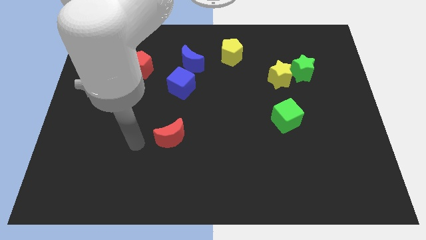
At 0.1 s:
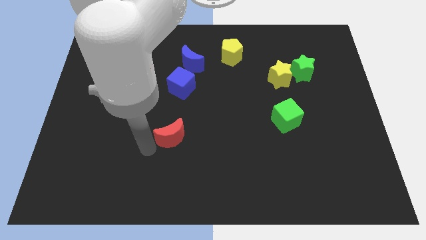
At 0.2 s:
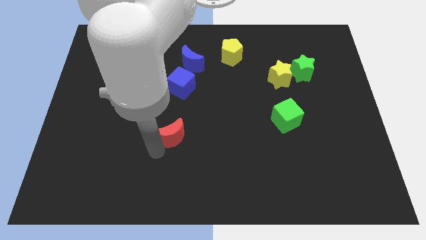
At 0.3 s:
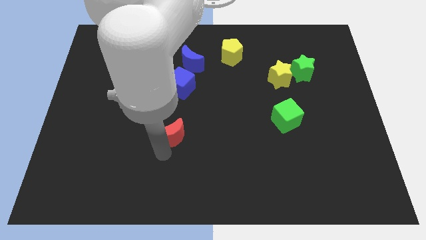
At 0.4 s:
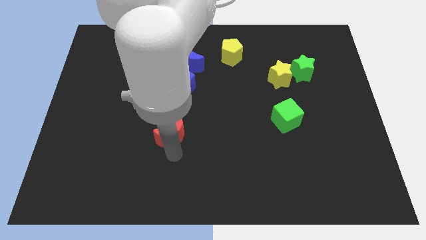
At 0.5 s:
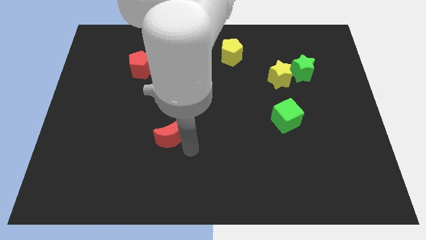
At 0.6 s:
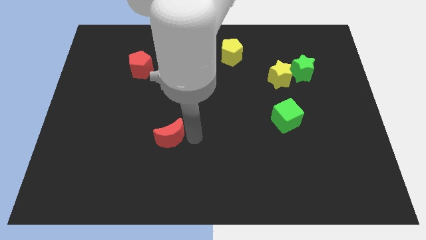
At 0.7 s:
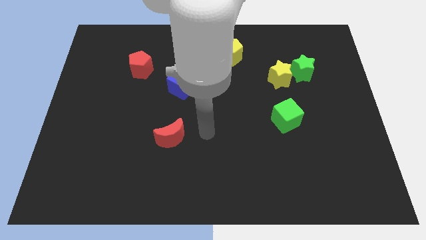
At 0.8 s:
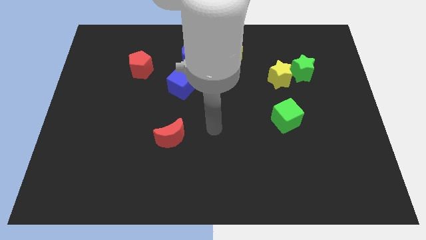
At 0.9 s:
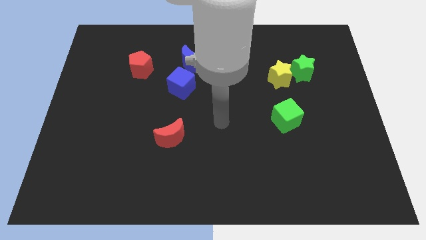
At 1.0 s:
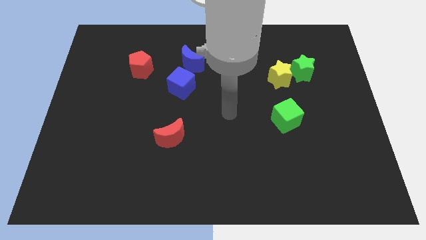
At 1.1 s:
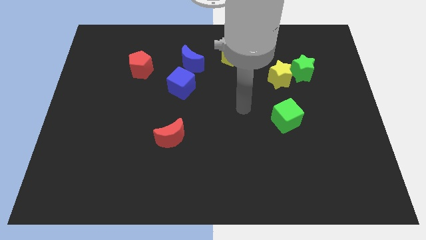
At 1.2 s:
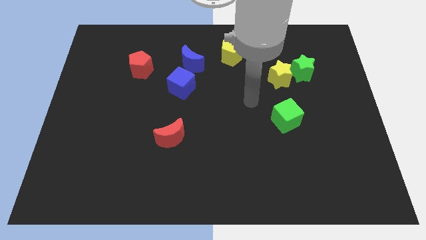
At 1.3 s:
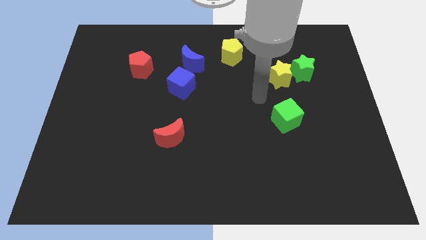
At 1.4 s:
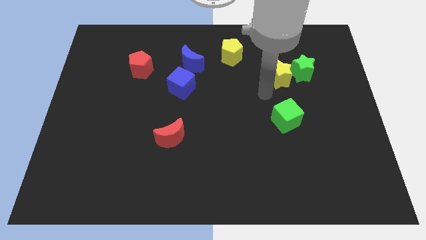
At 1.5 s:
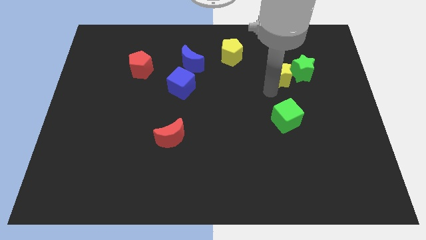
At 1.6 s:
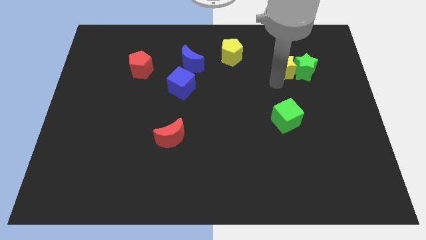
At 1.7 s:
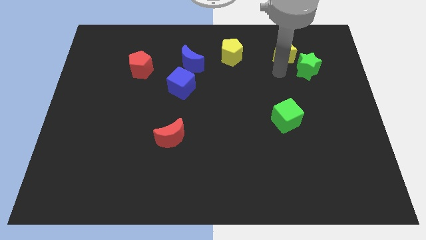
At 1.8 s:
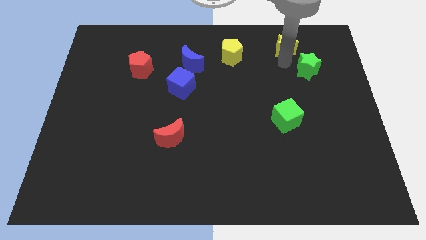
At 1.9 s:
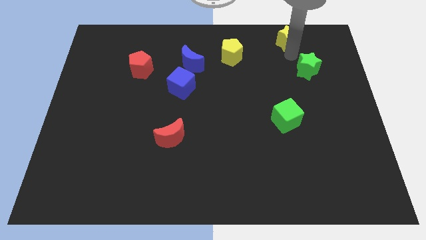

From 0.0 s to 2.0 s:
separate the green star from the yellow star

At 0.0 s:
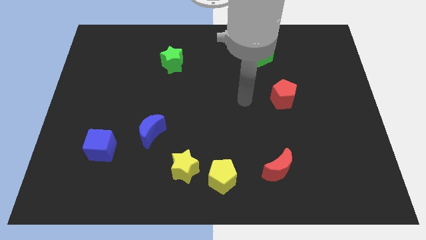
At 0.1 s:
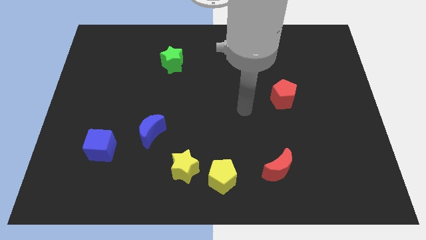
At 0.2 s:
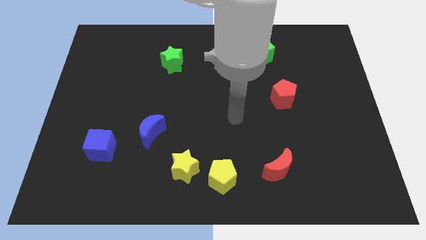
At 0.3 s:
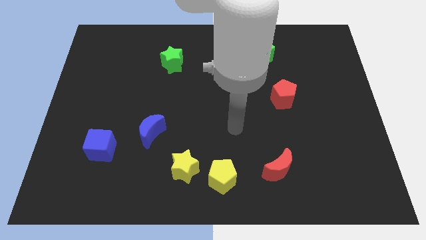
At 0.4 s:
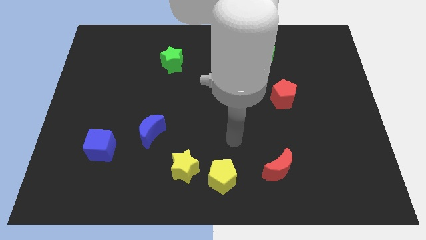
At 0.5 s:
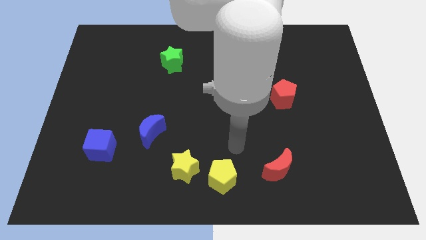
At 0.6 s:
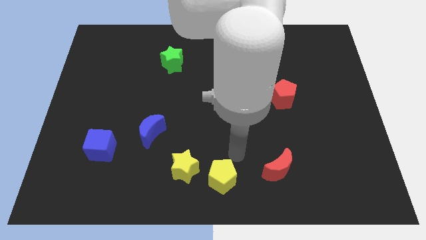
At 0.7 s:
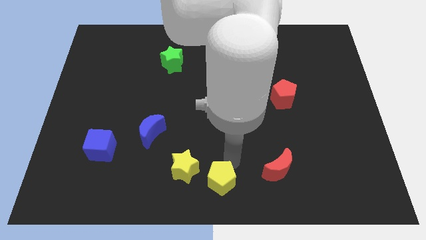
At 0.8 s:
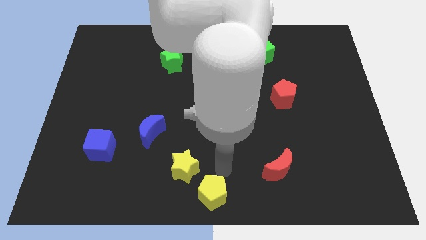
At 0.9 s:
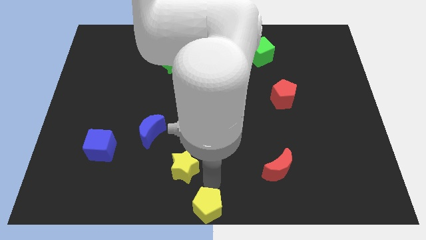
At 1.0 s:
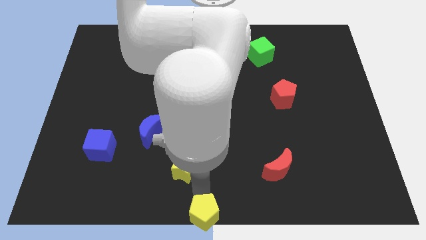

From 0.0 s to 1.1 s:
separate the yellow star from the yellow pentagon

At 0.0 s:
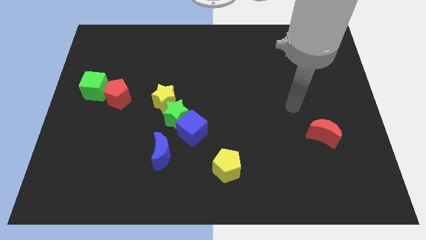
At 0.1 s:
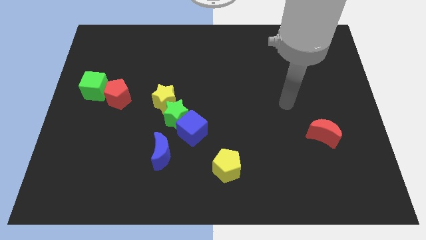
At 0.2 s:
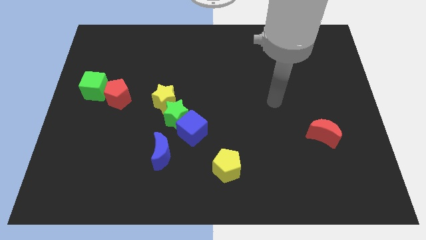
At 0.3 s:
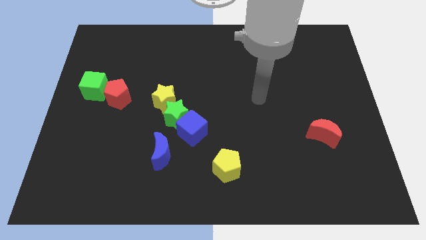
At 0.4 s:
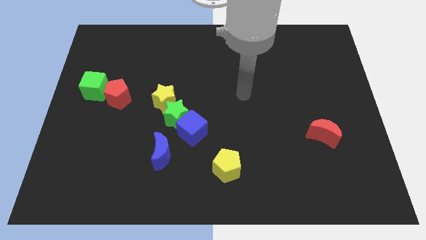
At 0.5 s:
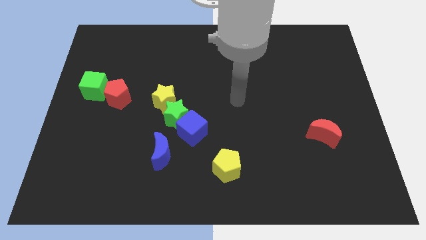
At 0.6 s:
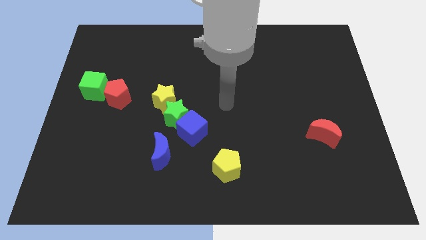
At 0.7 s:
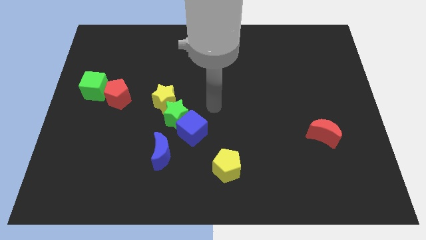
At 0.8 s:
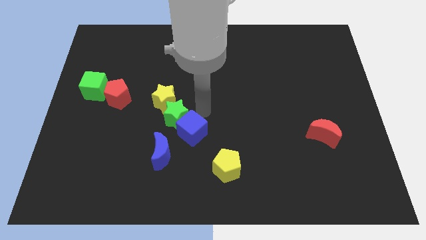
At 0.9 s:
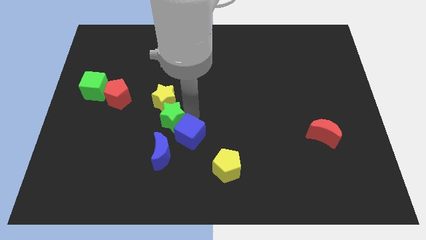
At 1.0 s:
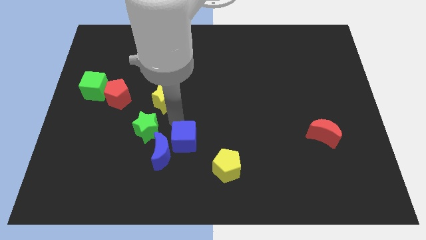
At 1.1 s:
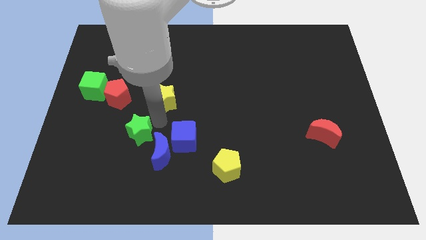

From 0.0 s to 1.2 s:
move the yellow star away from the green star

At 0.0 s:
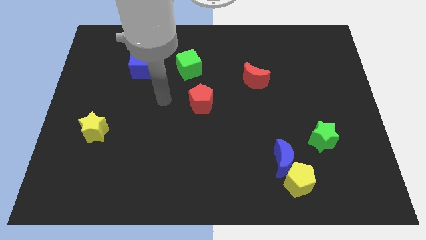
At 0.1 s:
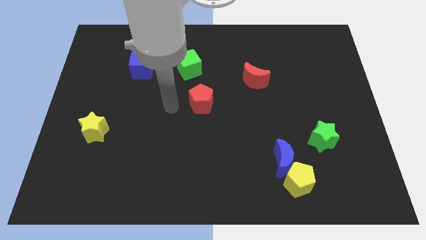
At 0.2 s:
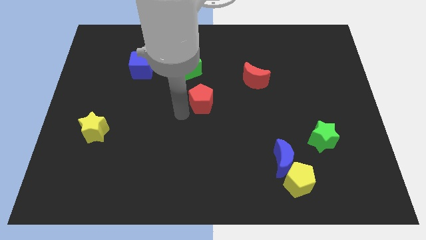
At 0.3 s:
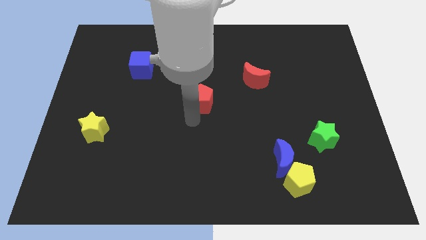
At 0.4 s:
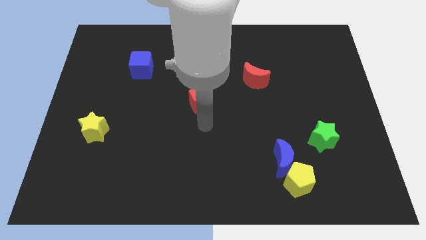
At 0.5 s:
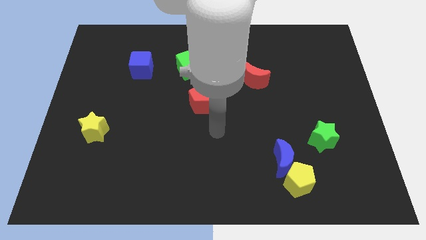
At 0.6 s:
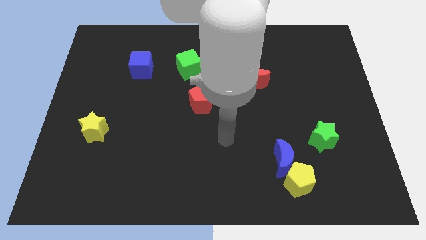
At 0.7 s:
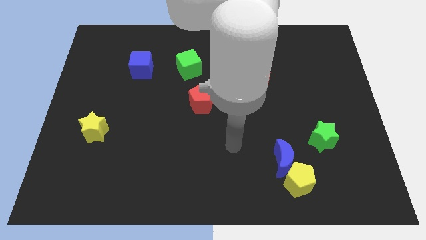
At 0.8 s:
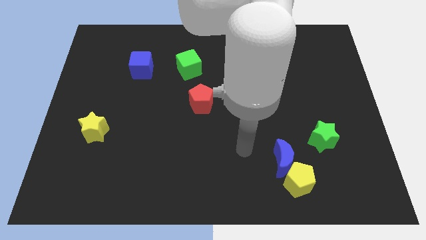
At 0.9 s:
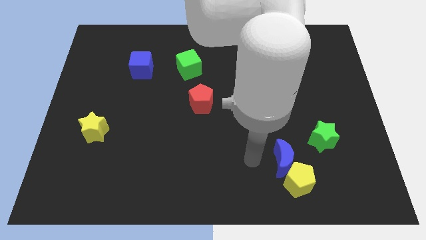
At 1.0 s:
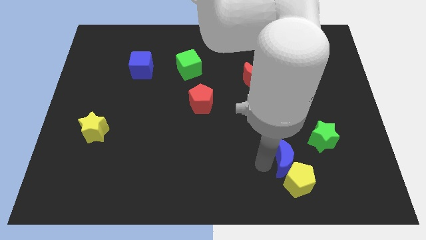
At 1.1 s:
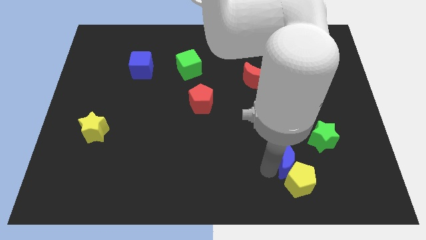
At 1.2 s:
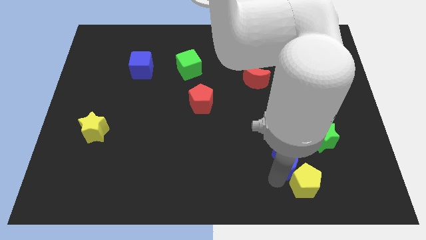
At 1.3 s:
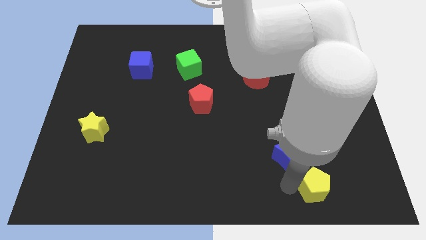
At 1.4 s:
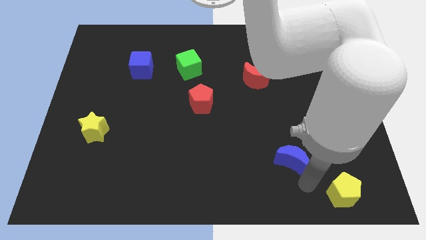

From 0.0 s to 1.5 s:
pull the blue moon apart from the yellow pentagon

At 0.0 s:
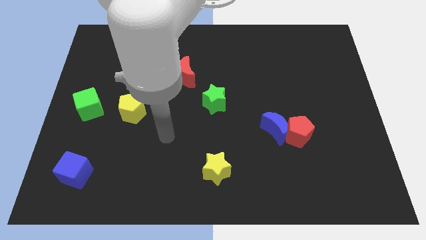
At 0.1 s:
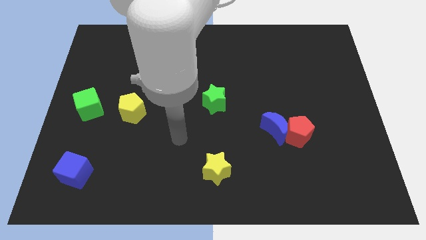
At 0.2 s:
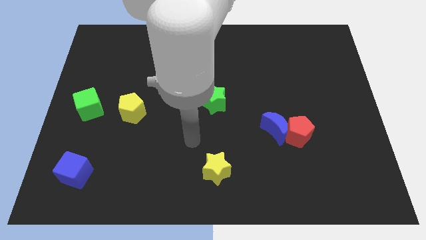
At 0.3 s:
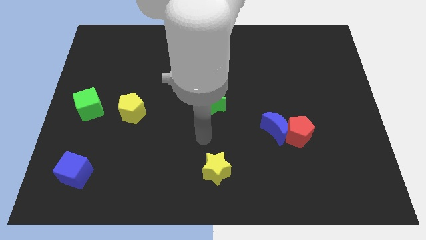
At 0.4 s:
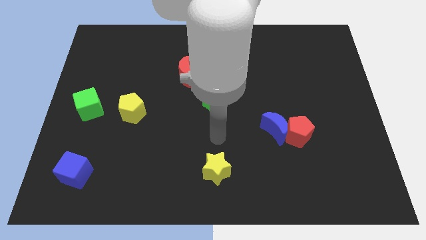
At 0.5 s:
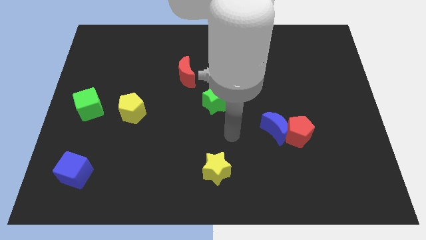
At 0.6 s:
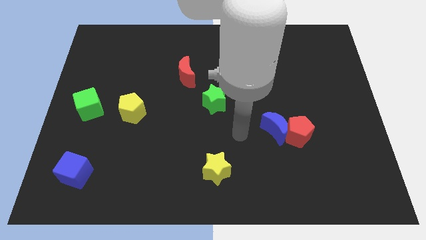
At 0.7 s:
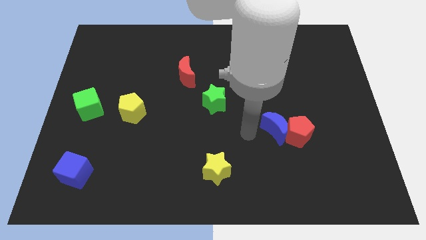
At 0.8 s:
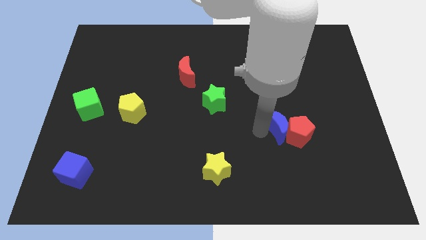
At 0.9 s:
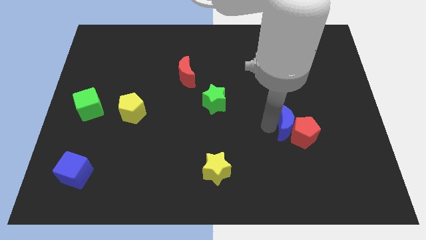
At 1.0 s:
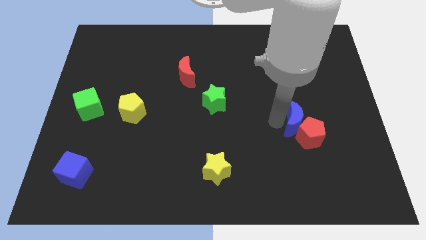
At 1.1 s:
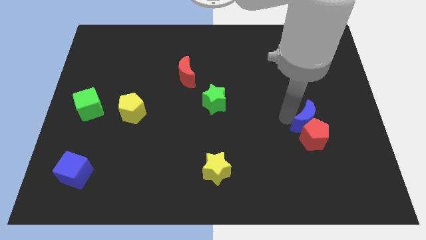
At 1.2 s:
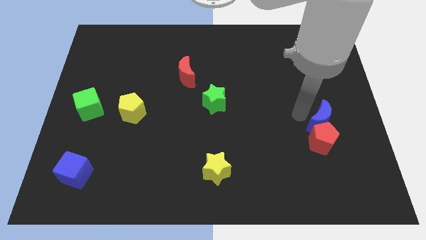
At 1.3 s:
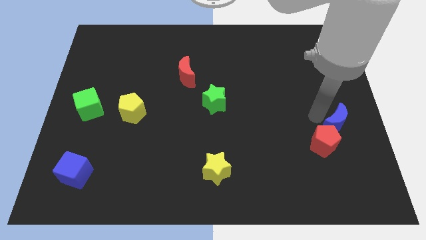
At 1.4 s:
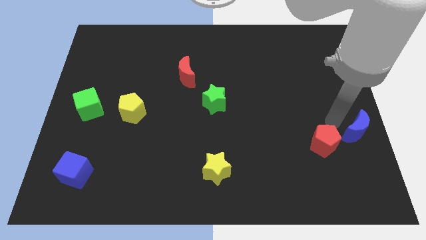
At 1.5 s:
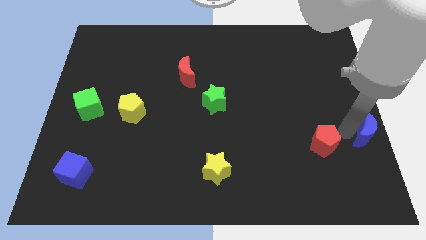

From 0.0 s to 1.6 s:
move the red pentagon away from the blue moon

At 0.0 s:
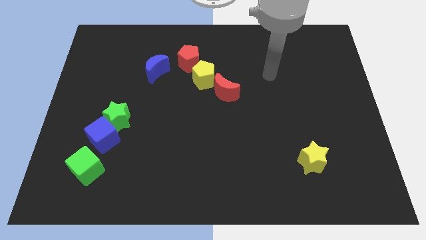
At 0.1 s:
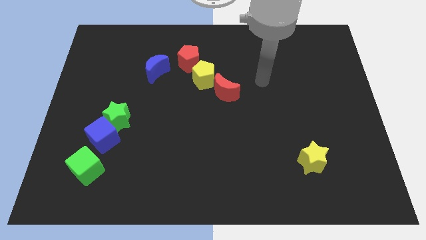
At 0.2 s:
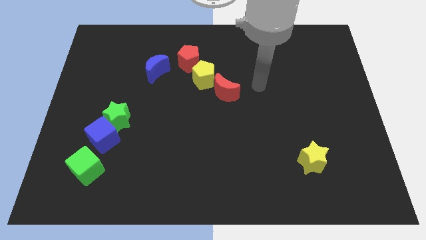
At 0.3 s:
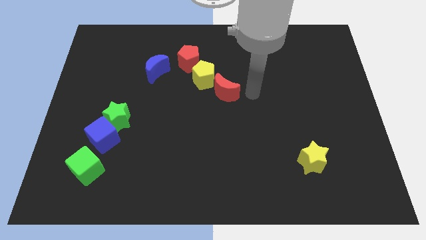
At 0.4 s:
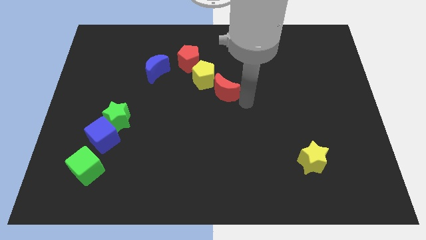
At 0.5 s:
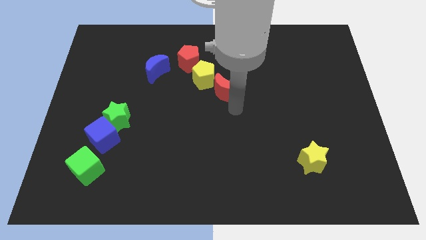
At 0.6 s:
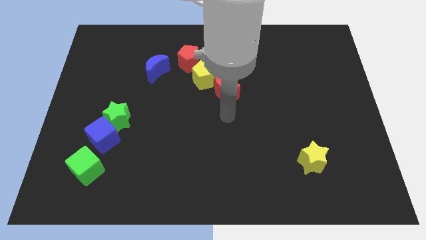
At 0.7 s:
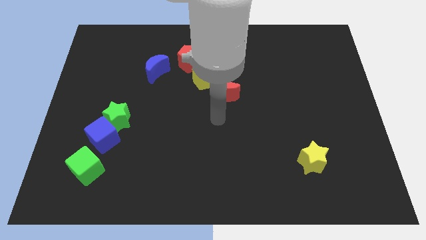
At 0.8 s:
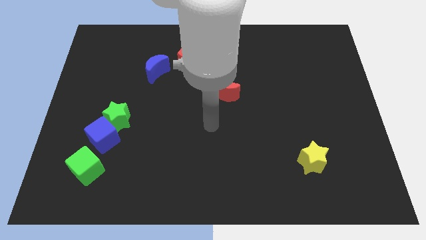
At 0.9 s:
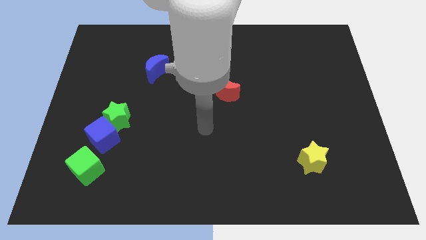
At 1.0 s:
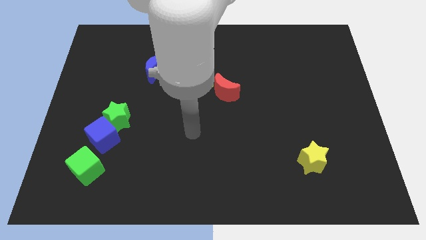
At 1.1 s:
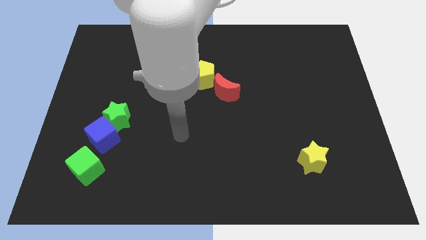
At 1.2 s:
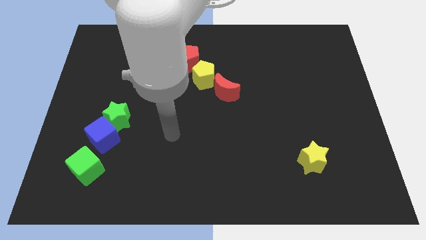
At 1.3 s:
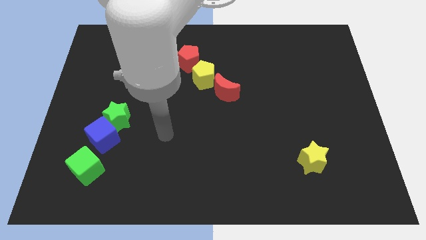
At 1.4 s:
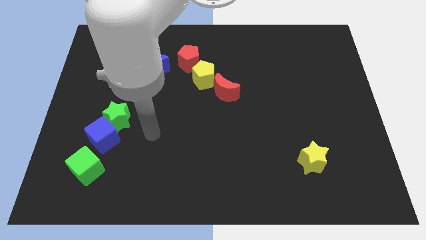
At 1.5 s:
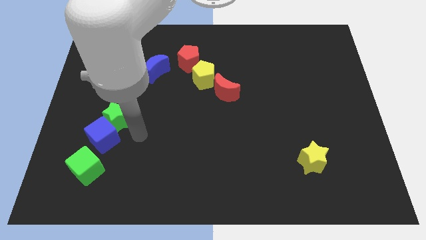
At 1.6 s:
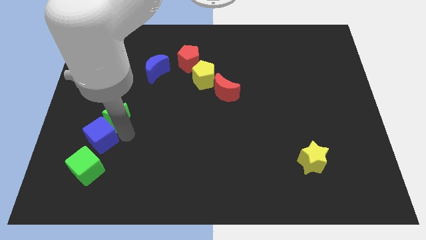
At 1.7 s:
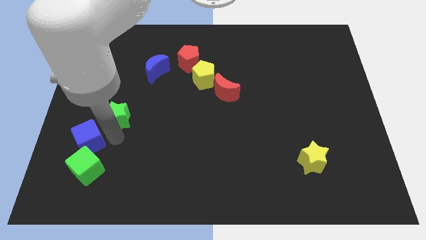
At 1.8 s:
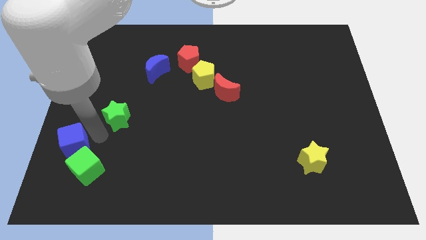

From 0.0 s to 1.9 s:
move the green star away from the blue cube

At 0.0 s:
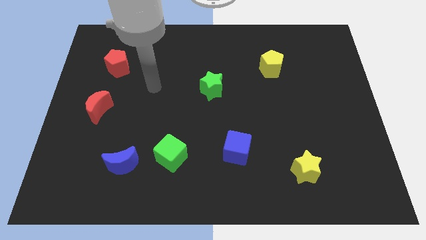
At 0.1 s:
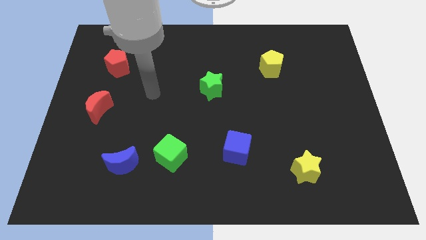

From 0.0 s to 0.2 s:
separate the blue moon from the green cube
